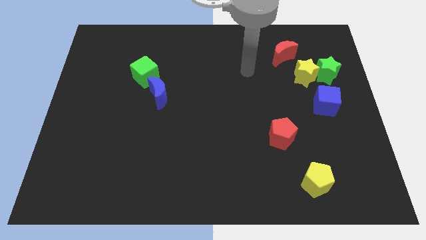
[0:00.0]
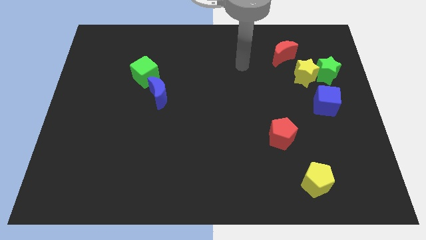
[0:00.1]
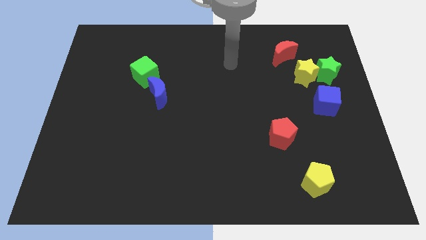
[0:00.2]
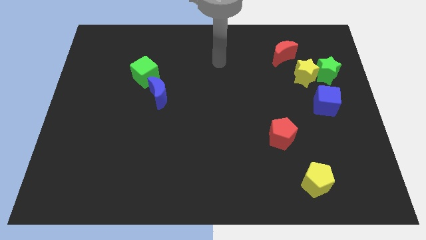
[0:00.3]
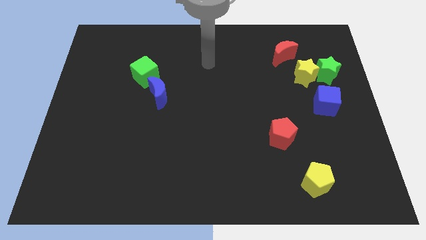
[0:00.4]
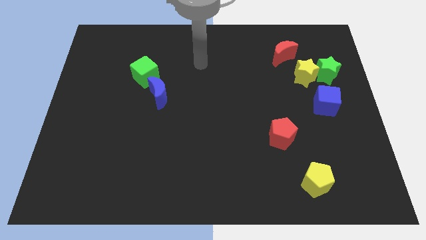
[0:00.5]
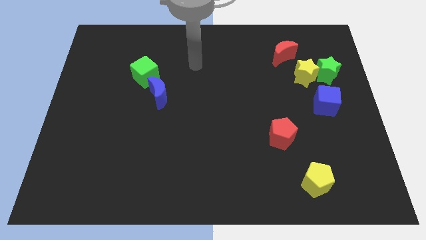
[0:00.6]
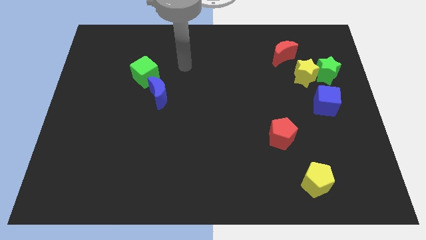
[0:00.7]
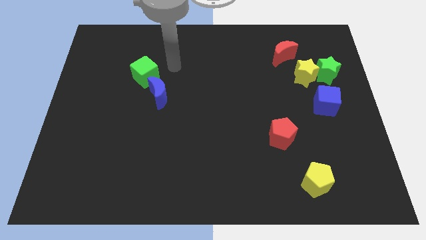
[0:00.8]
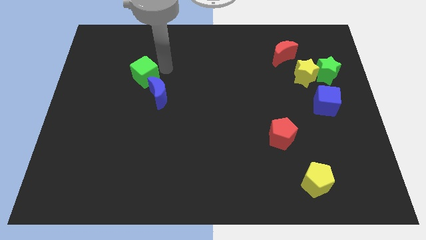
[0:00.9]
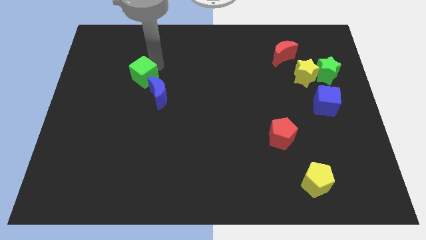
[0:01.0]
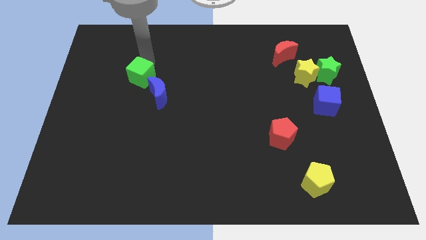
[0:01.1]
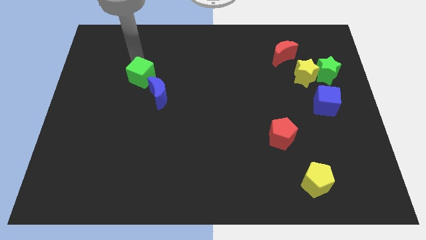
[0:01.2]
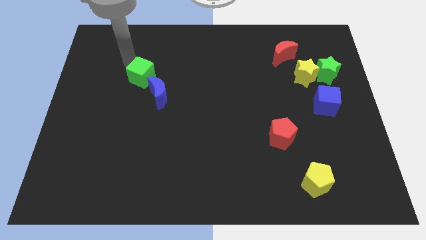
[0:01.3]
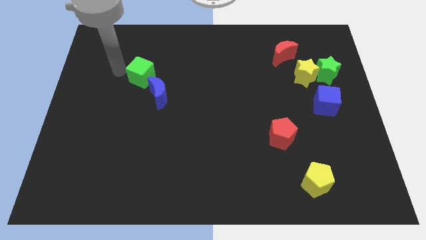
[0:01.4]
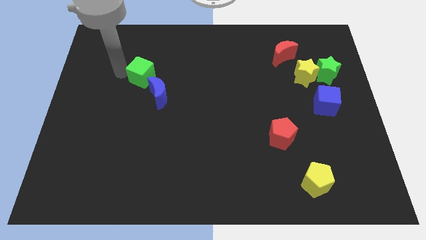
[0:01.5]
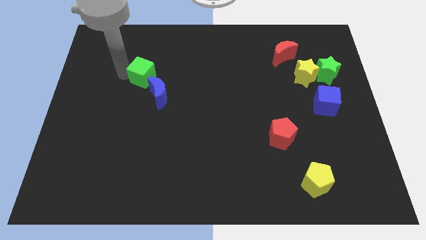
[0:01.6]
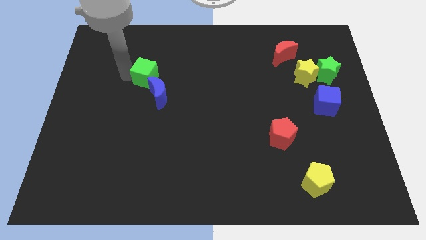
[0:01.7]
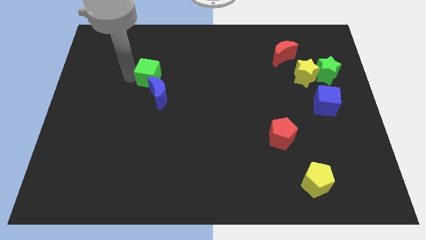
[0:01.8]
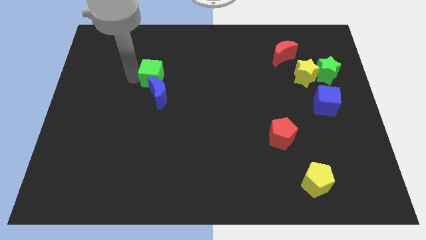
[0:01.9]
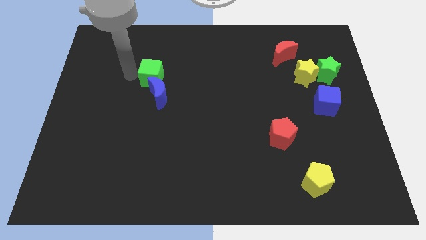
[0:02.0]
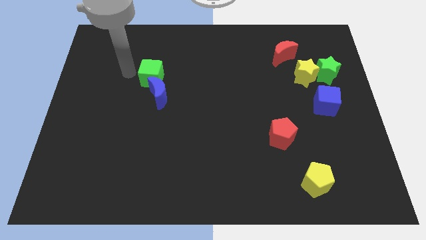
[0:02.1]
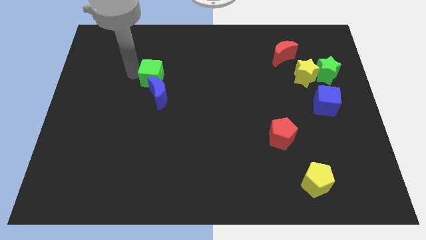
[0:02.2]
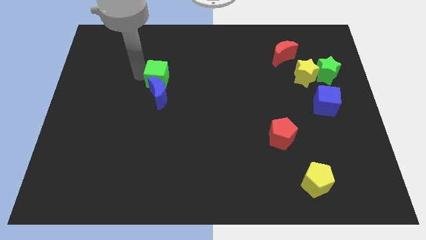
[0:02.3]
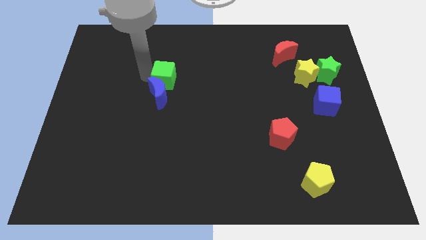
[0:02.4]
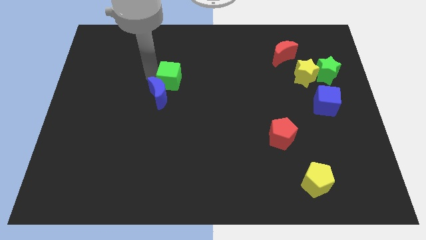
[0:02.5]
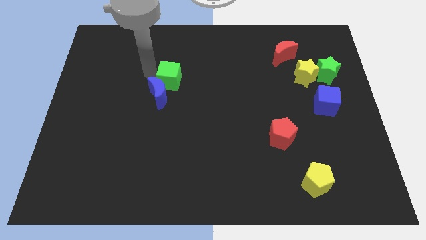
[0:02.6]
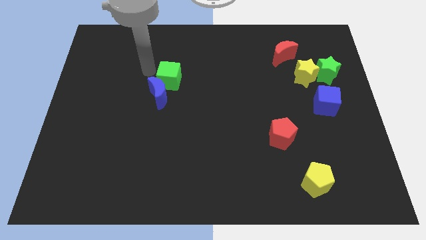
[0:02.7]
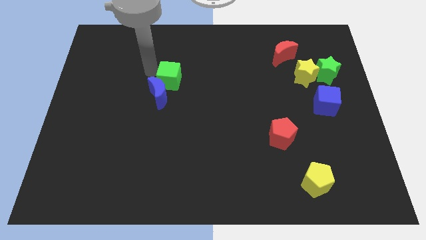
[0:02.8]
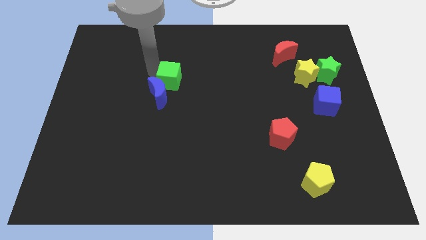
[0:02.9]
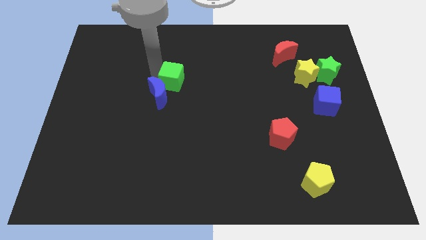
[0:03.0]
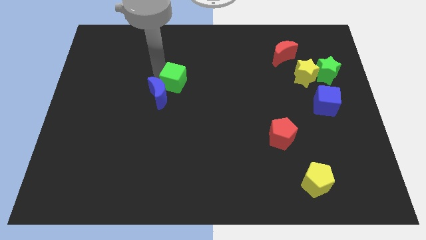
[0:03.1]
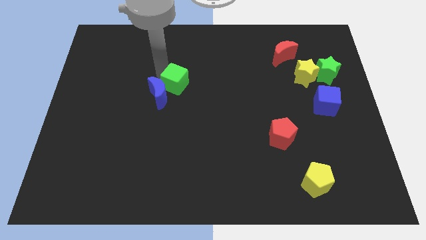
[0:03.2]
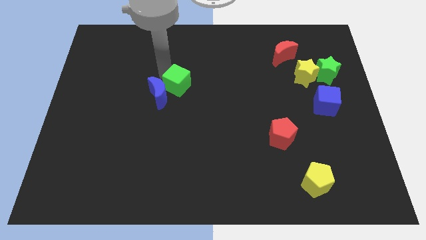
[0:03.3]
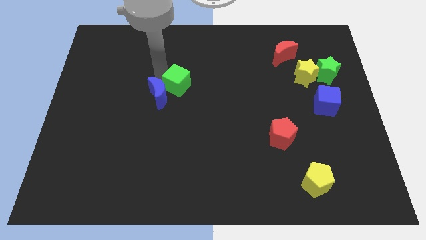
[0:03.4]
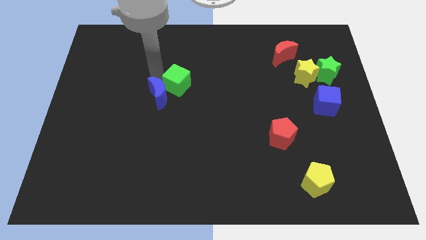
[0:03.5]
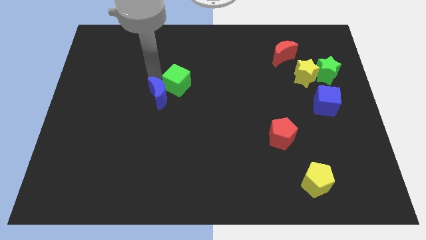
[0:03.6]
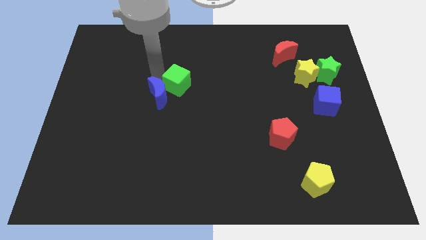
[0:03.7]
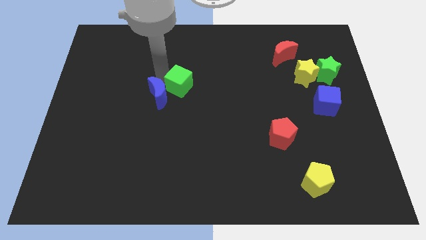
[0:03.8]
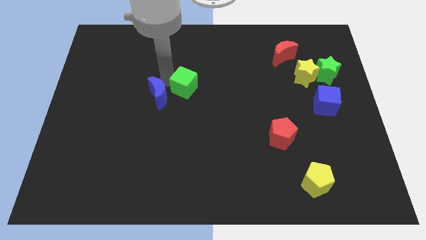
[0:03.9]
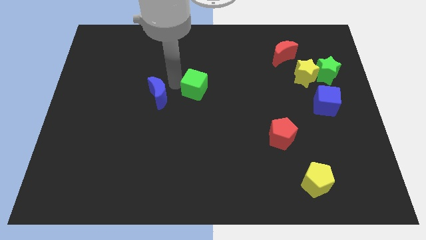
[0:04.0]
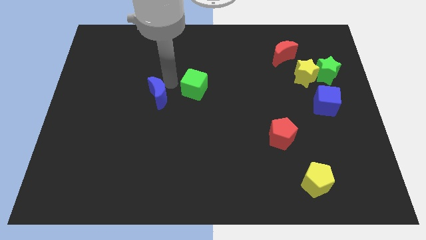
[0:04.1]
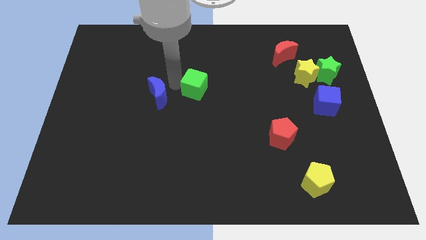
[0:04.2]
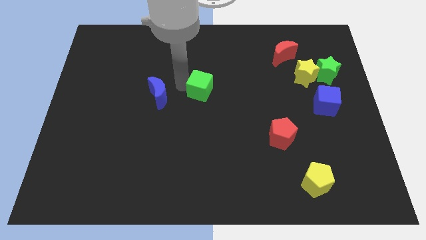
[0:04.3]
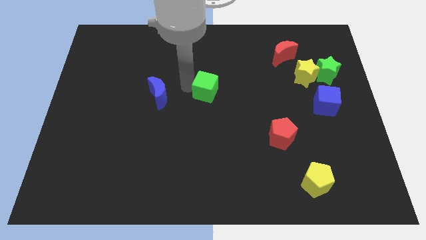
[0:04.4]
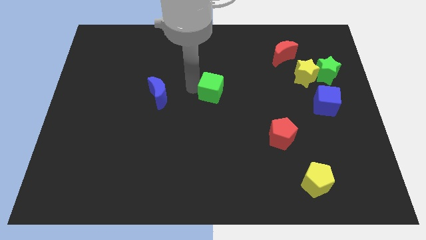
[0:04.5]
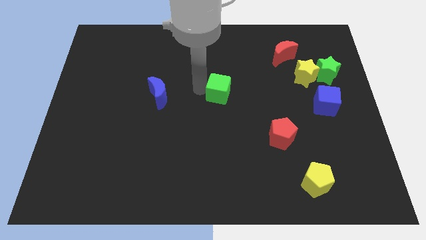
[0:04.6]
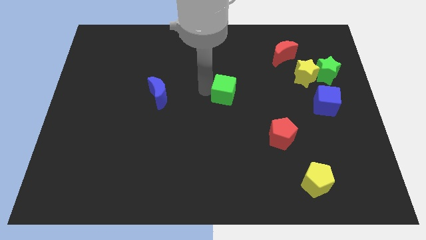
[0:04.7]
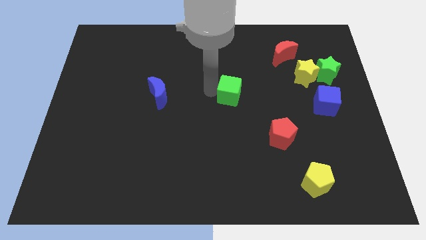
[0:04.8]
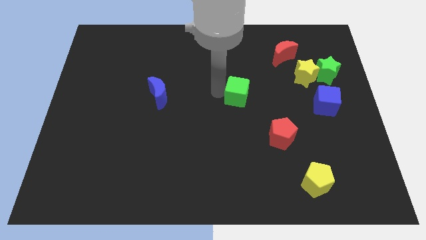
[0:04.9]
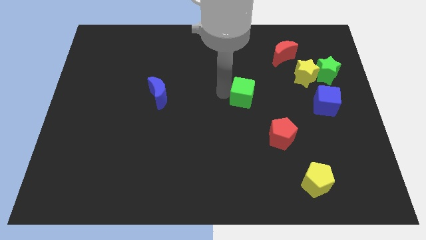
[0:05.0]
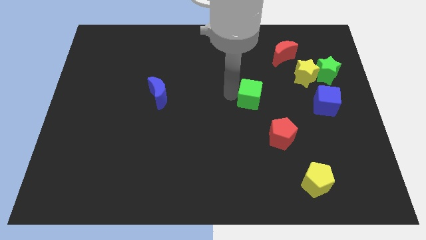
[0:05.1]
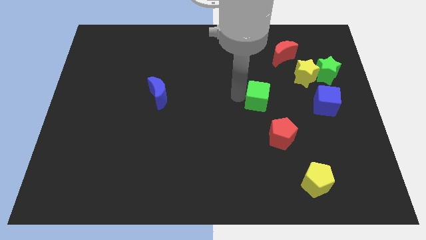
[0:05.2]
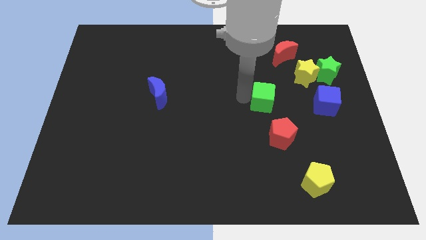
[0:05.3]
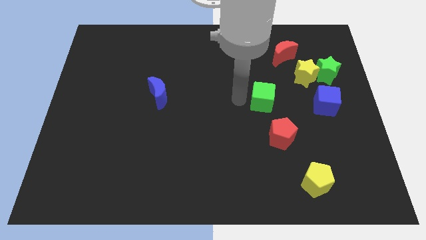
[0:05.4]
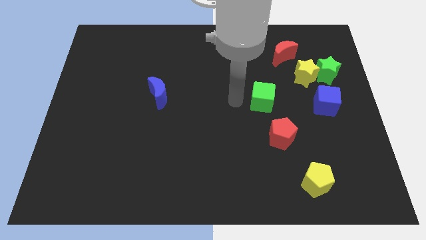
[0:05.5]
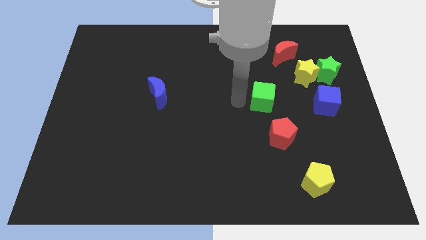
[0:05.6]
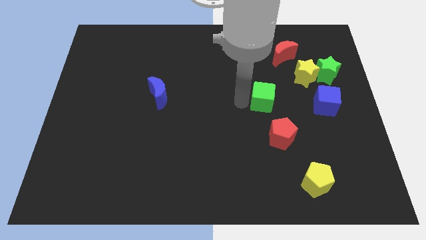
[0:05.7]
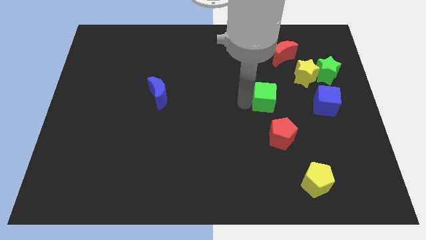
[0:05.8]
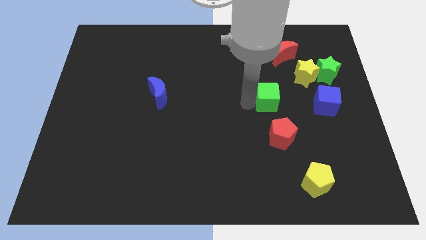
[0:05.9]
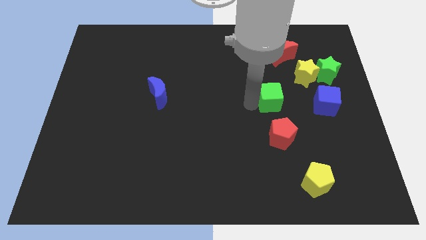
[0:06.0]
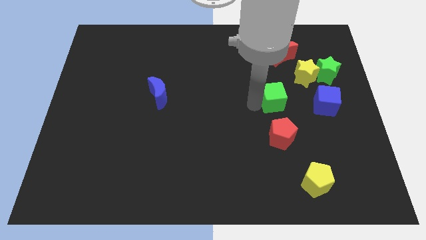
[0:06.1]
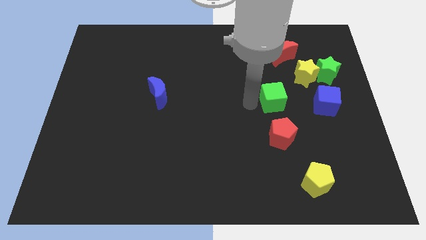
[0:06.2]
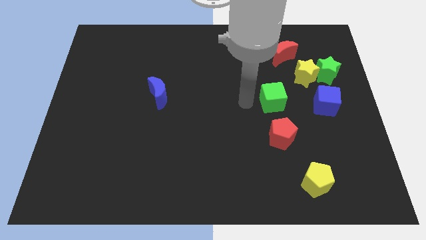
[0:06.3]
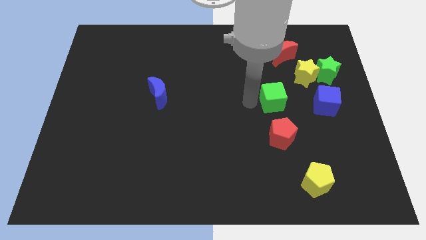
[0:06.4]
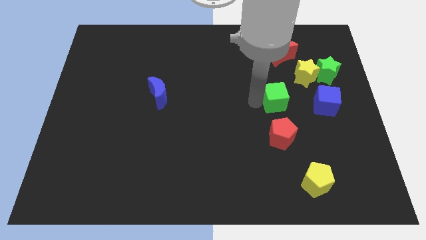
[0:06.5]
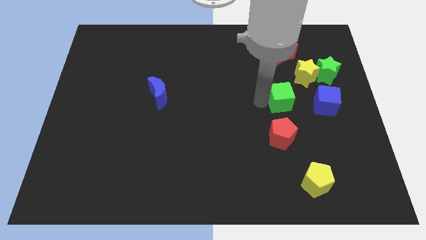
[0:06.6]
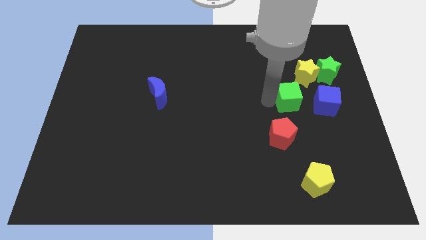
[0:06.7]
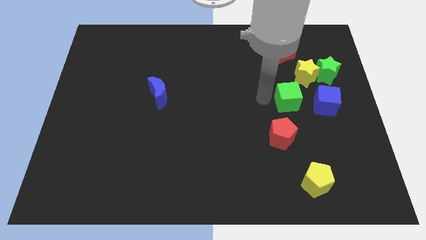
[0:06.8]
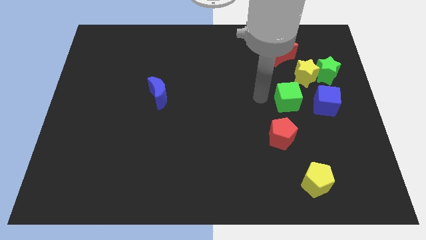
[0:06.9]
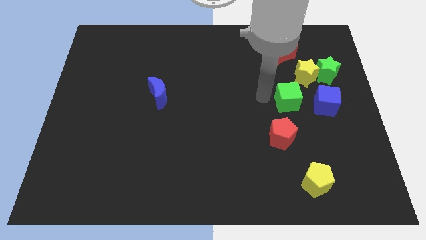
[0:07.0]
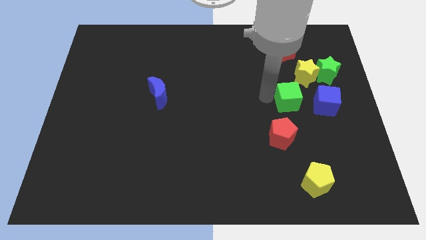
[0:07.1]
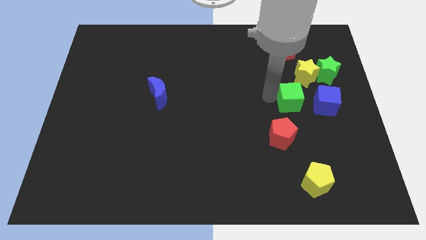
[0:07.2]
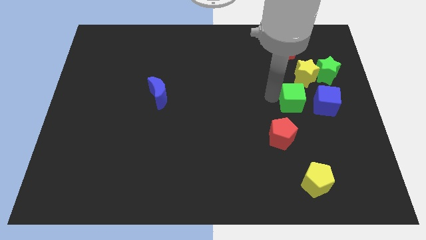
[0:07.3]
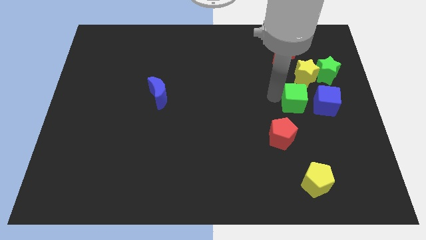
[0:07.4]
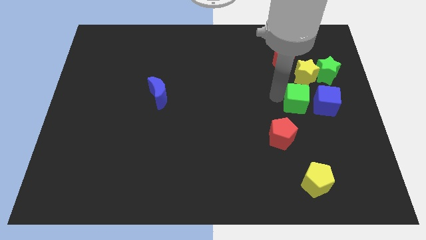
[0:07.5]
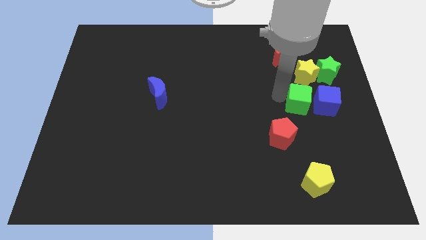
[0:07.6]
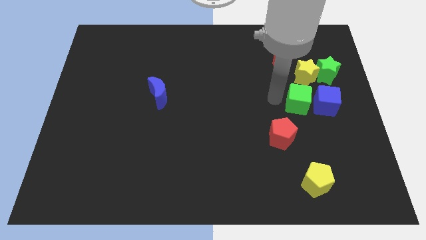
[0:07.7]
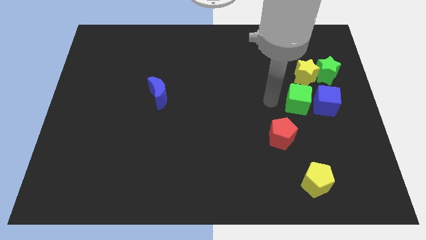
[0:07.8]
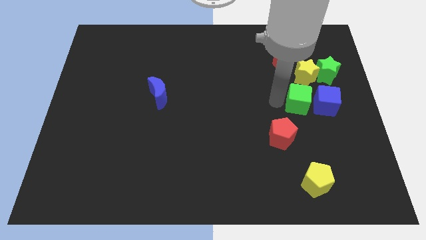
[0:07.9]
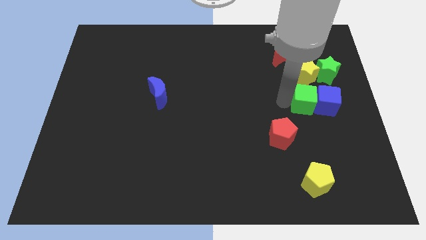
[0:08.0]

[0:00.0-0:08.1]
push the green cube towards the blue cube
